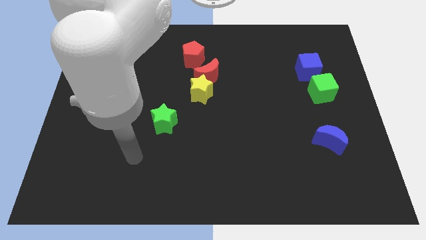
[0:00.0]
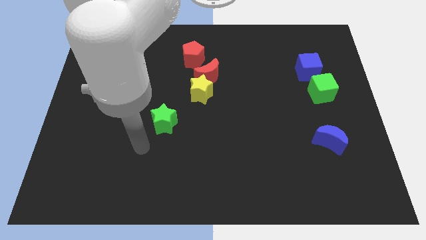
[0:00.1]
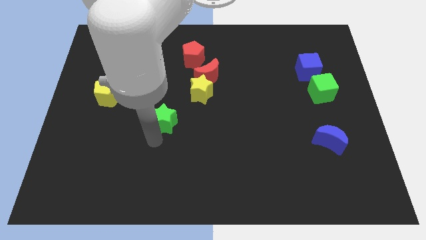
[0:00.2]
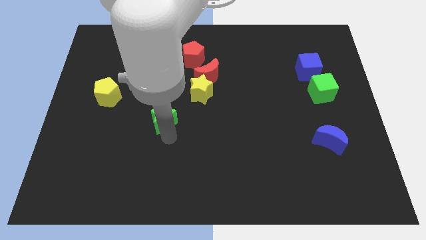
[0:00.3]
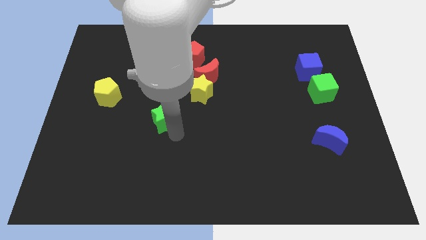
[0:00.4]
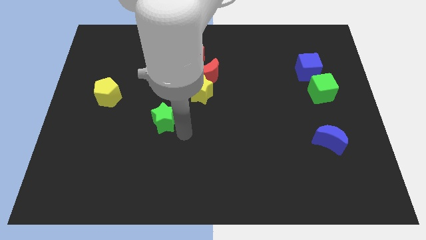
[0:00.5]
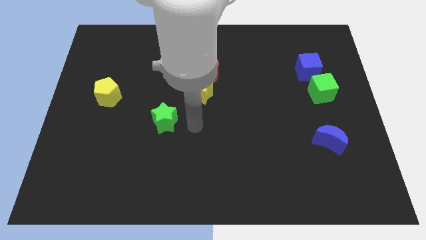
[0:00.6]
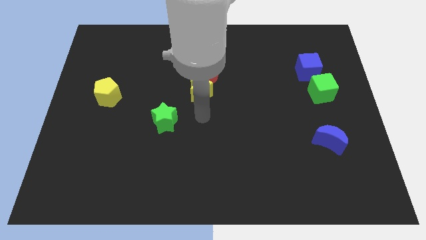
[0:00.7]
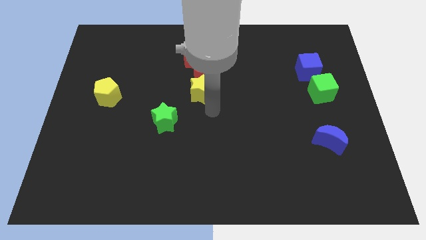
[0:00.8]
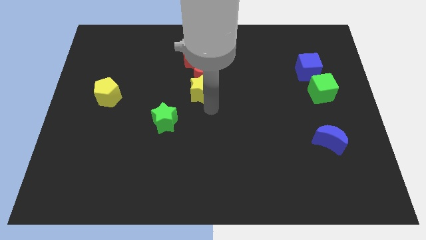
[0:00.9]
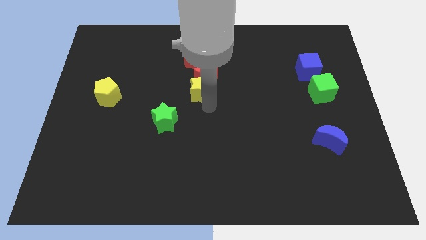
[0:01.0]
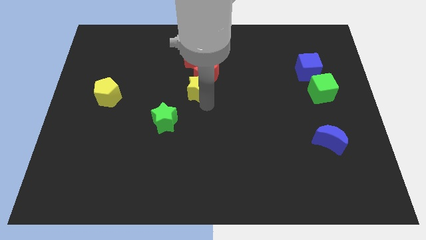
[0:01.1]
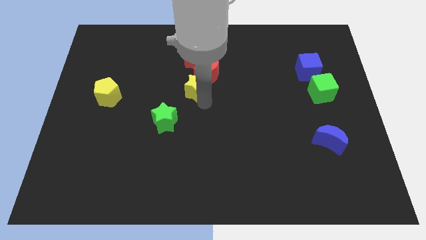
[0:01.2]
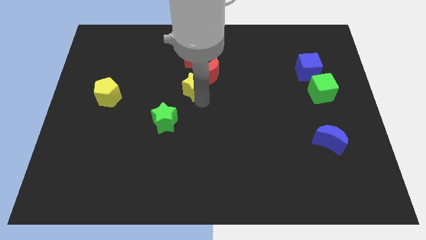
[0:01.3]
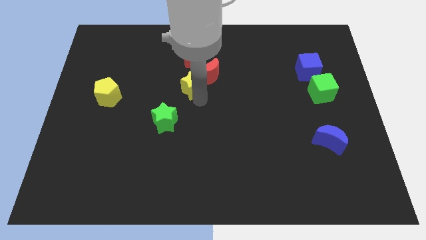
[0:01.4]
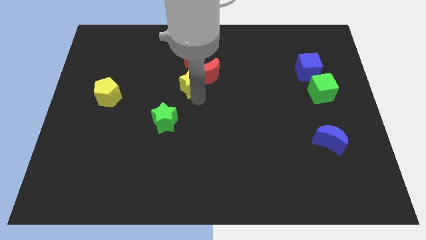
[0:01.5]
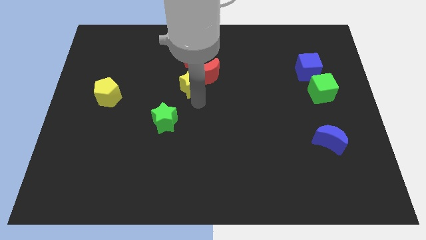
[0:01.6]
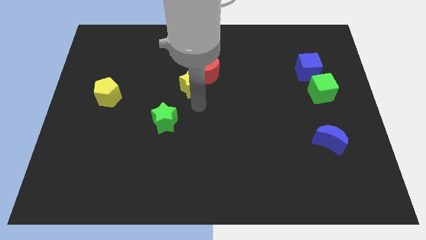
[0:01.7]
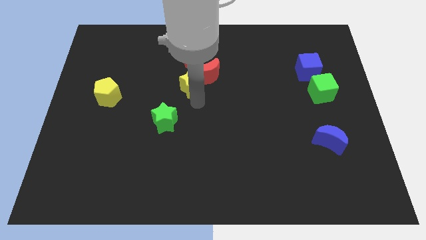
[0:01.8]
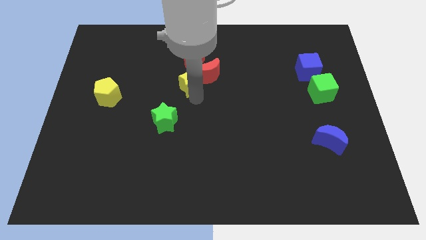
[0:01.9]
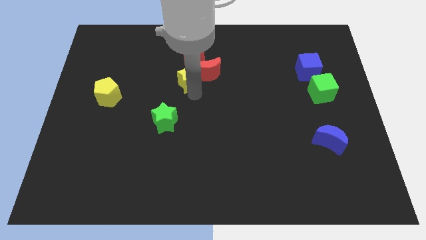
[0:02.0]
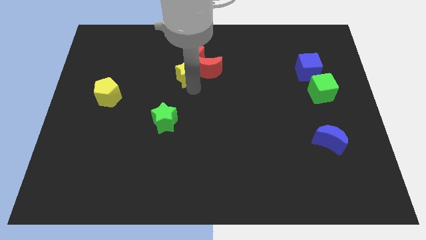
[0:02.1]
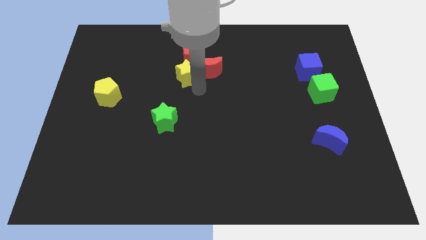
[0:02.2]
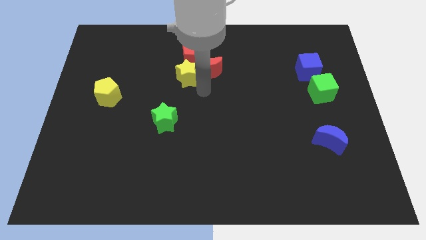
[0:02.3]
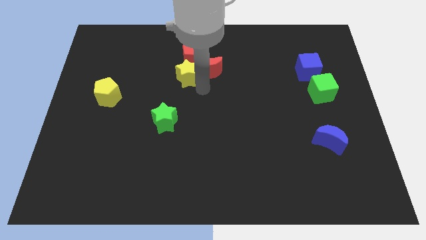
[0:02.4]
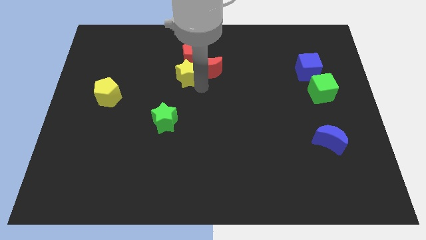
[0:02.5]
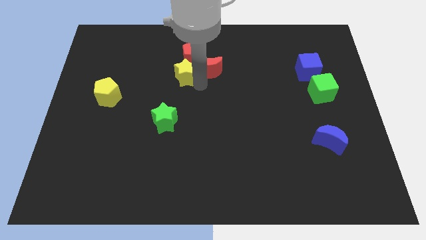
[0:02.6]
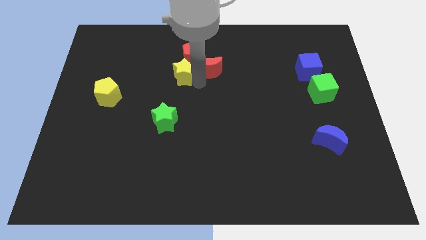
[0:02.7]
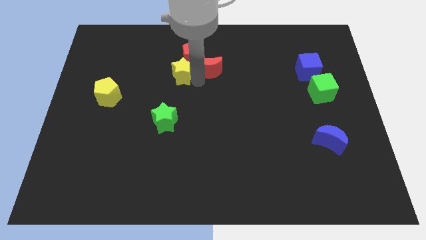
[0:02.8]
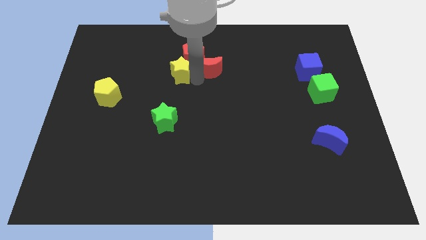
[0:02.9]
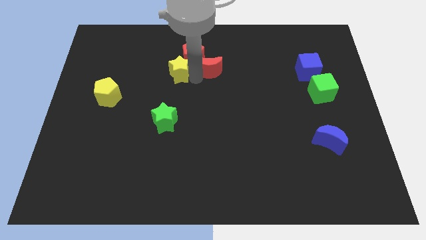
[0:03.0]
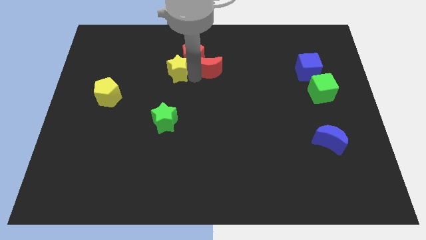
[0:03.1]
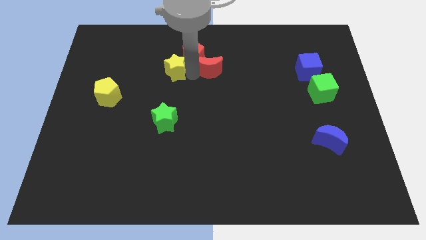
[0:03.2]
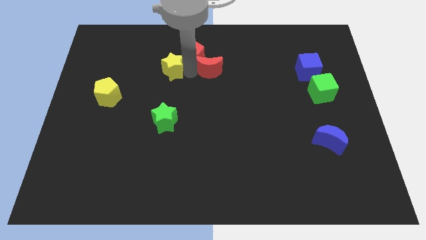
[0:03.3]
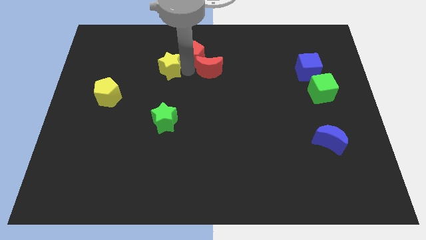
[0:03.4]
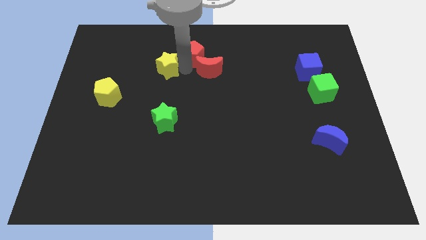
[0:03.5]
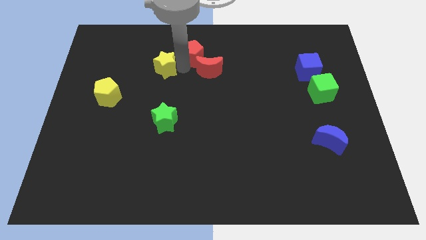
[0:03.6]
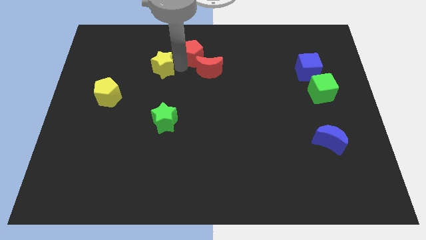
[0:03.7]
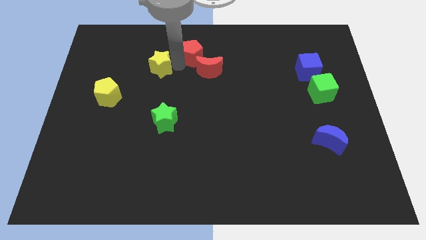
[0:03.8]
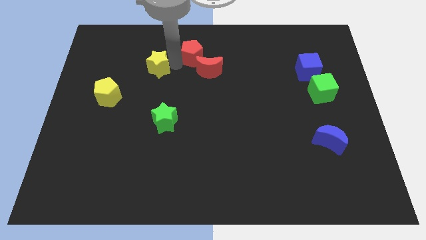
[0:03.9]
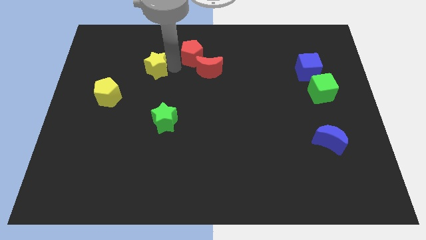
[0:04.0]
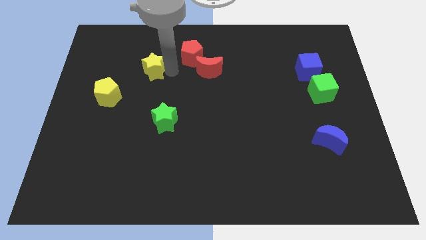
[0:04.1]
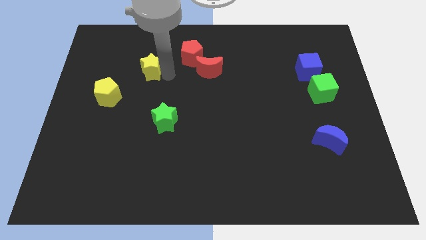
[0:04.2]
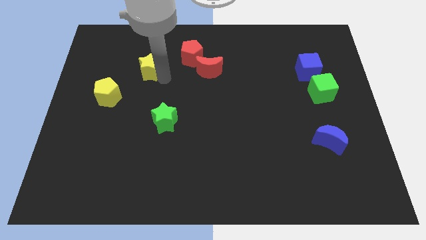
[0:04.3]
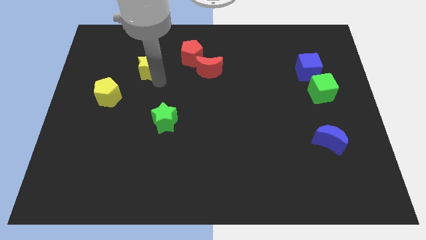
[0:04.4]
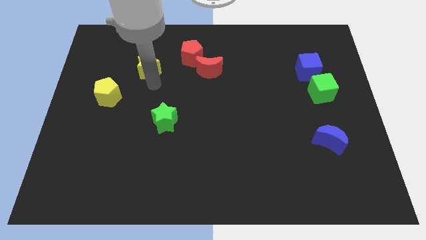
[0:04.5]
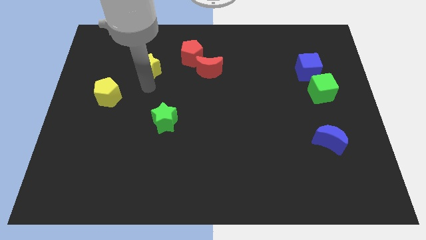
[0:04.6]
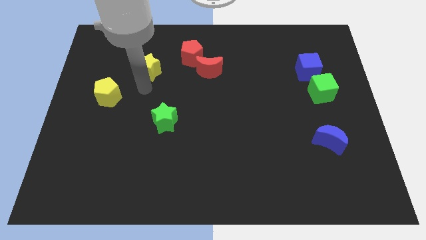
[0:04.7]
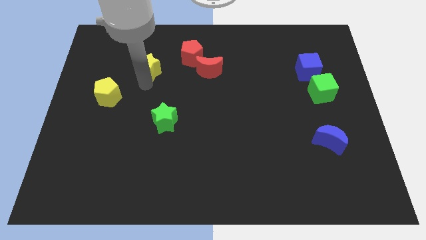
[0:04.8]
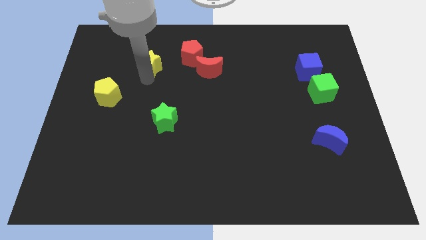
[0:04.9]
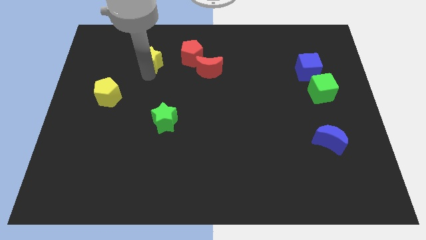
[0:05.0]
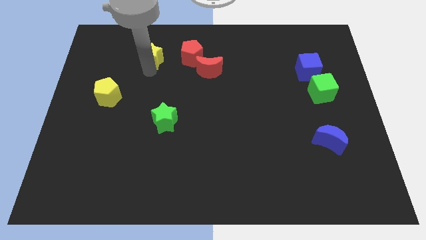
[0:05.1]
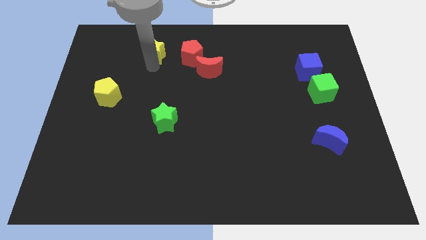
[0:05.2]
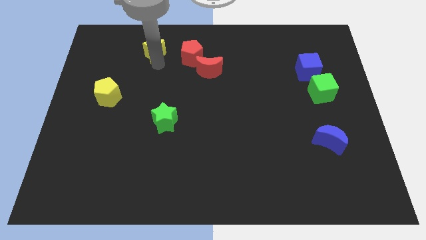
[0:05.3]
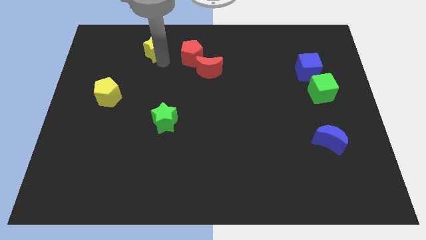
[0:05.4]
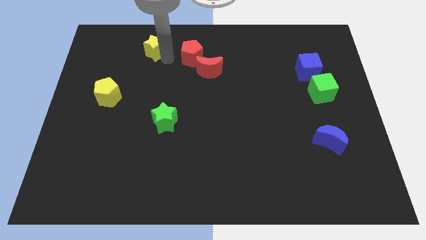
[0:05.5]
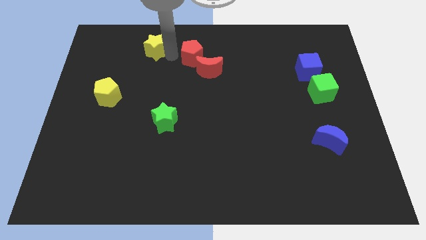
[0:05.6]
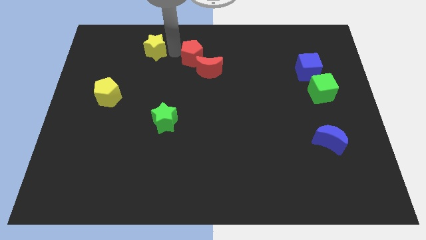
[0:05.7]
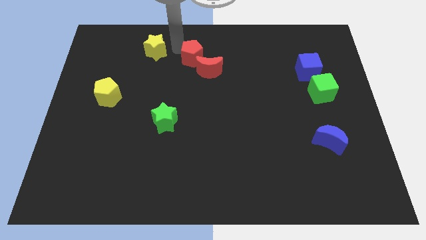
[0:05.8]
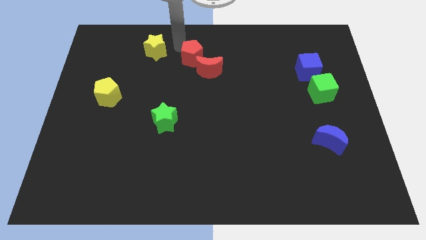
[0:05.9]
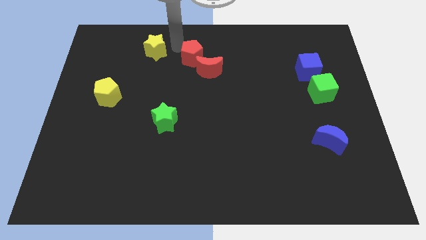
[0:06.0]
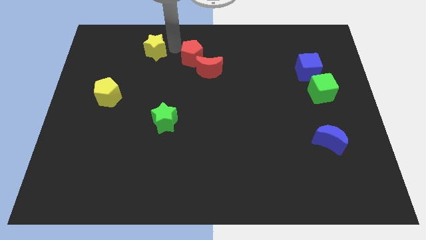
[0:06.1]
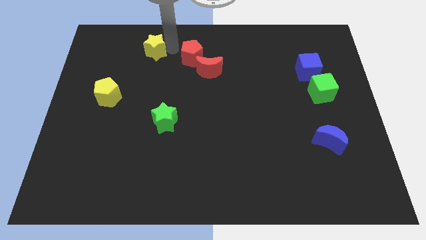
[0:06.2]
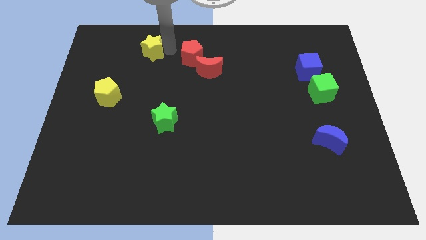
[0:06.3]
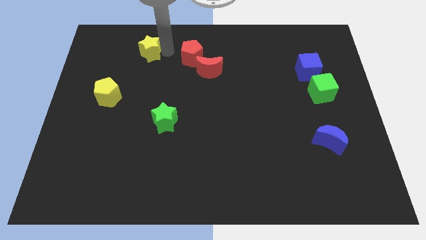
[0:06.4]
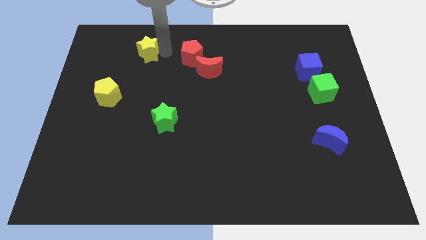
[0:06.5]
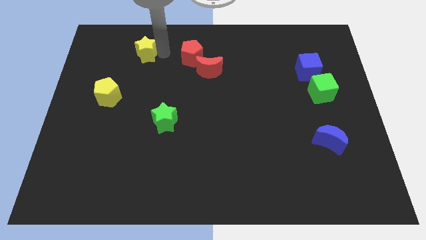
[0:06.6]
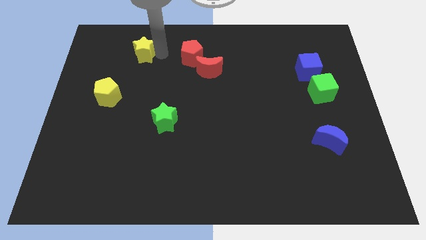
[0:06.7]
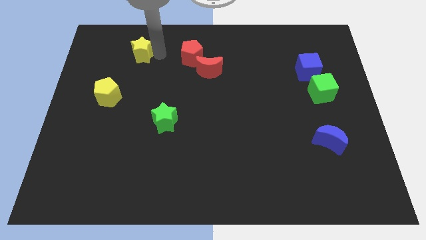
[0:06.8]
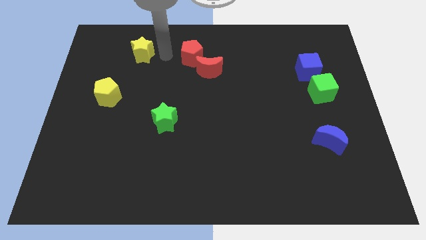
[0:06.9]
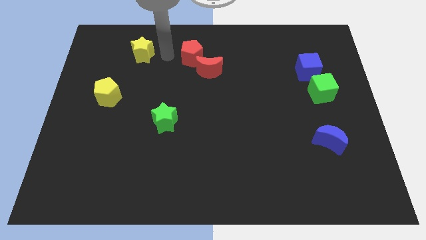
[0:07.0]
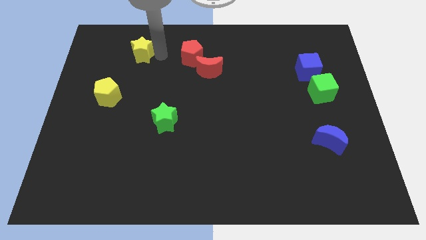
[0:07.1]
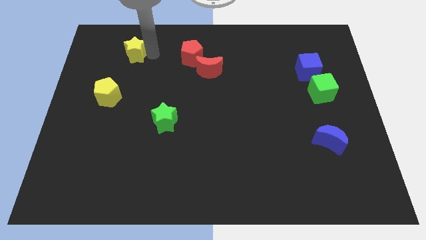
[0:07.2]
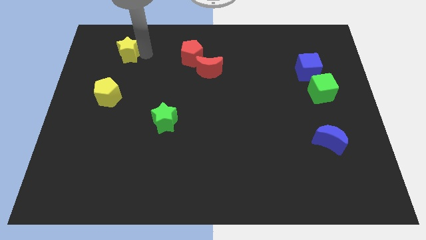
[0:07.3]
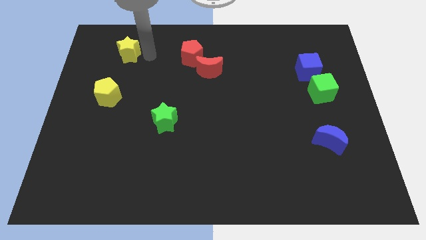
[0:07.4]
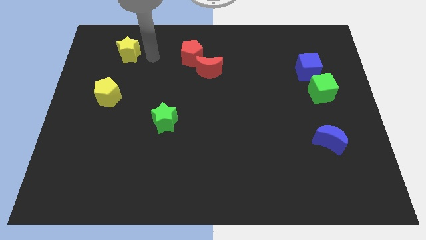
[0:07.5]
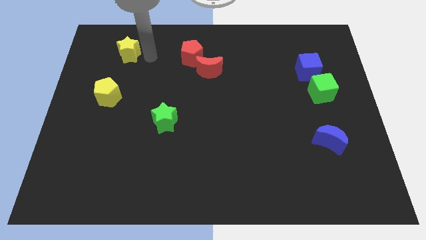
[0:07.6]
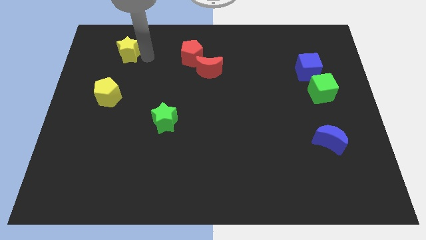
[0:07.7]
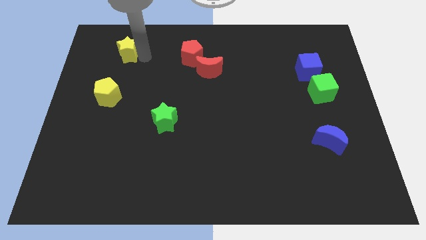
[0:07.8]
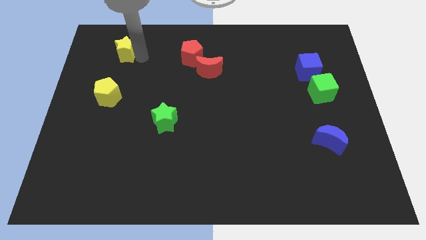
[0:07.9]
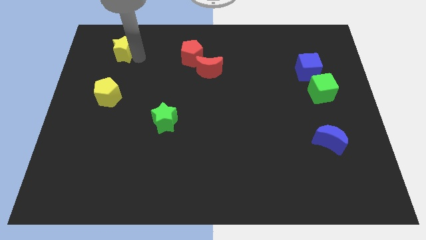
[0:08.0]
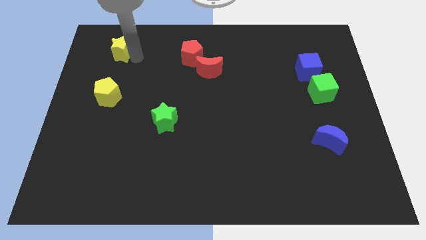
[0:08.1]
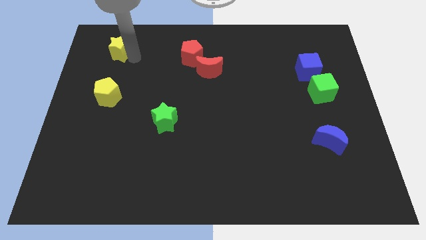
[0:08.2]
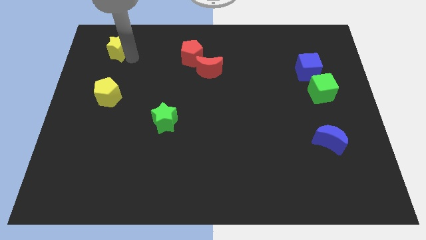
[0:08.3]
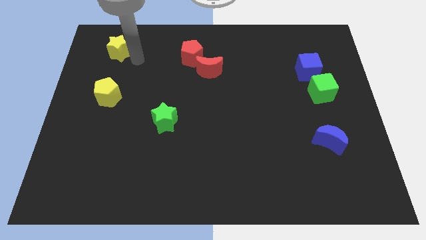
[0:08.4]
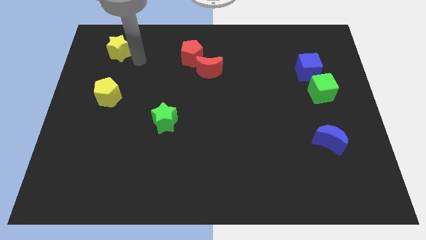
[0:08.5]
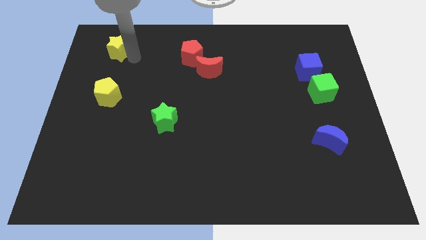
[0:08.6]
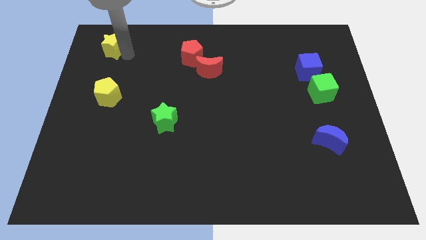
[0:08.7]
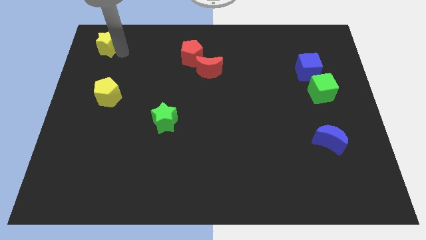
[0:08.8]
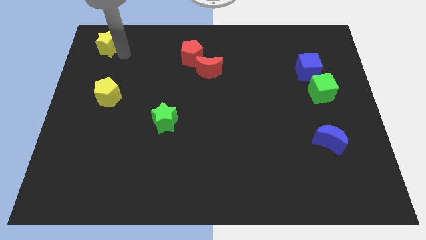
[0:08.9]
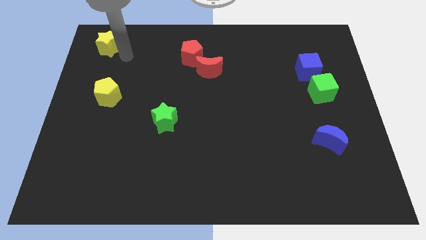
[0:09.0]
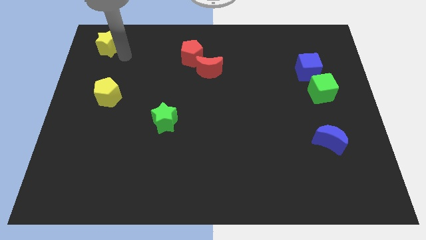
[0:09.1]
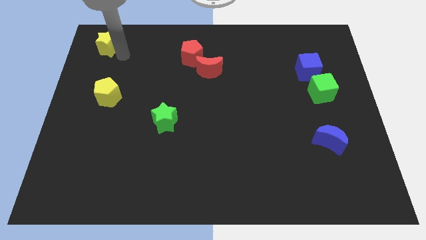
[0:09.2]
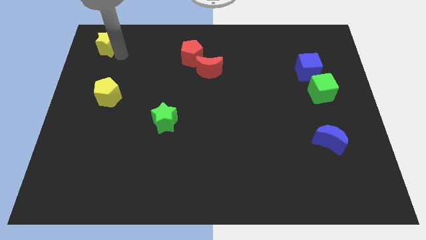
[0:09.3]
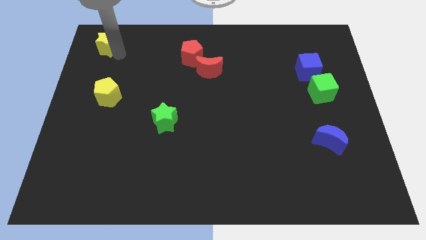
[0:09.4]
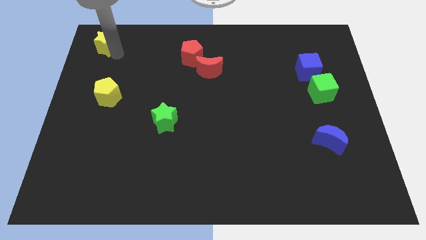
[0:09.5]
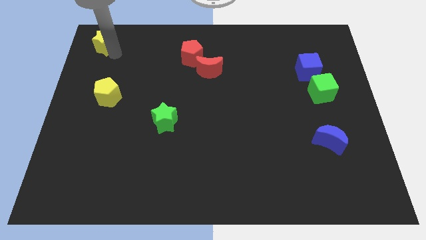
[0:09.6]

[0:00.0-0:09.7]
slide the yellow star to the upper left corner
